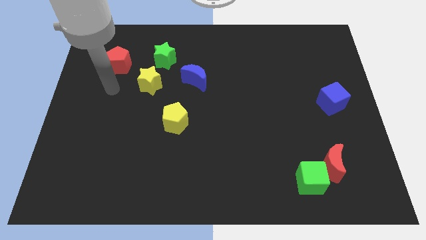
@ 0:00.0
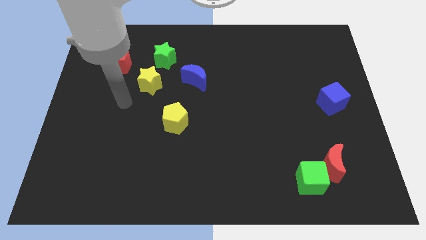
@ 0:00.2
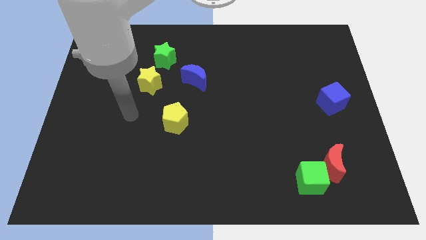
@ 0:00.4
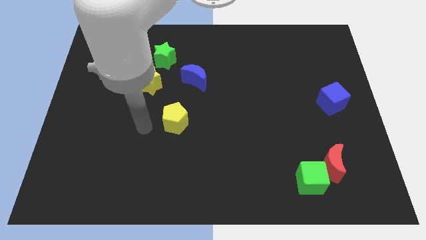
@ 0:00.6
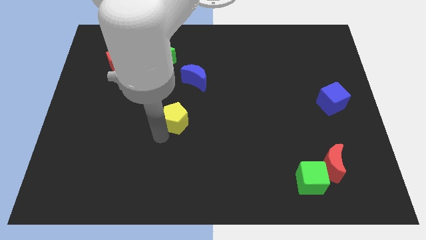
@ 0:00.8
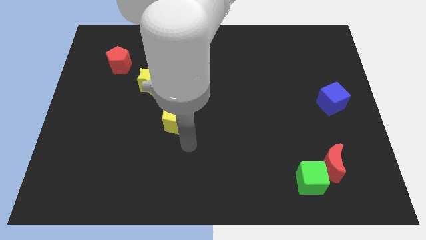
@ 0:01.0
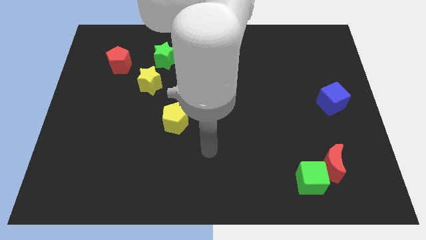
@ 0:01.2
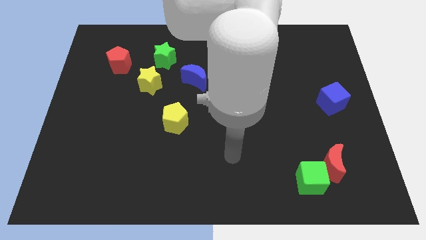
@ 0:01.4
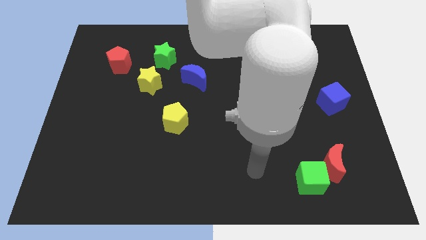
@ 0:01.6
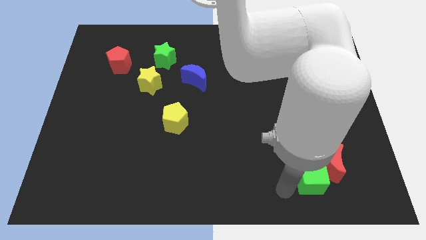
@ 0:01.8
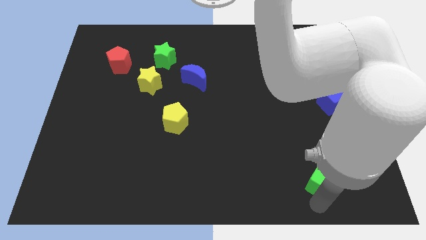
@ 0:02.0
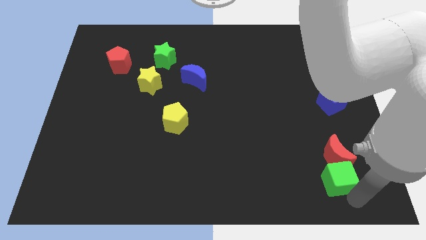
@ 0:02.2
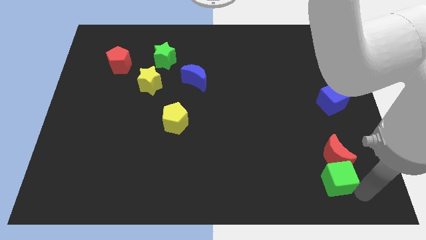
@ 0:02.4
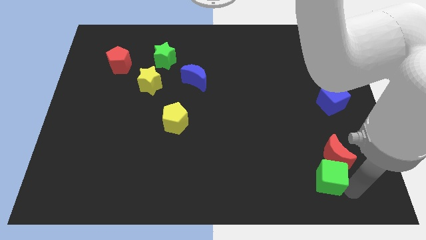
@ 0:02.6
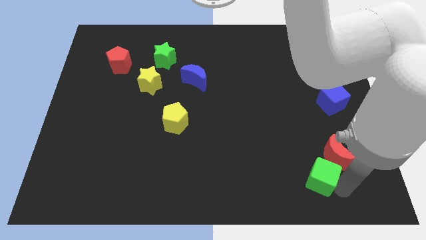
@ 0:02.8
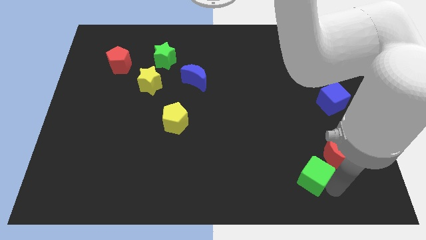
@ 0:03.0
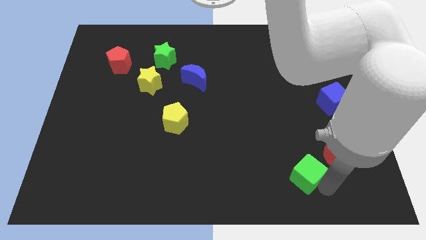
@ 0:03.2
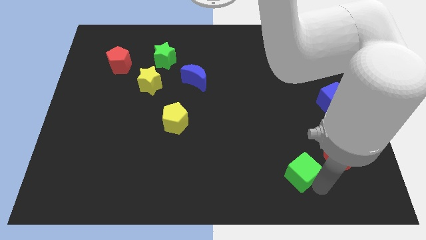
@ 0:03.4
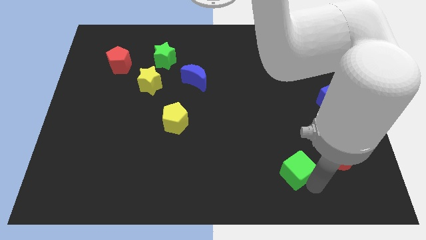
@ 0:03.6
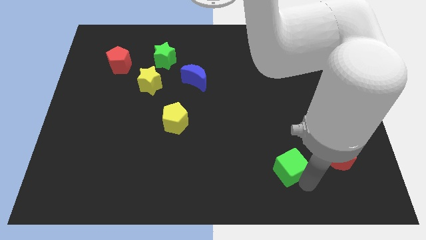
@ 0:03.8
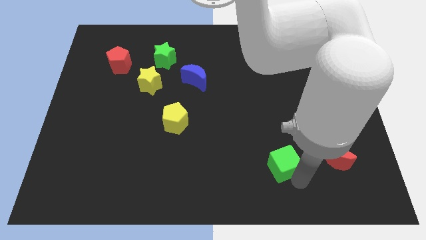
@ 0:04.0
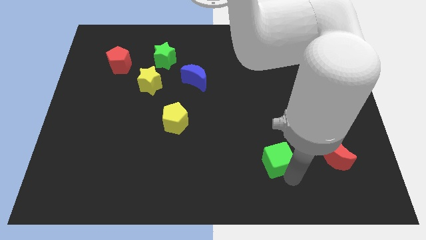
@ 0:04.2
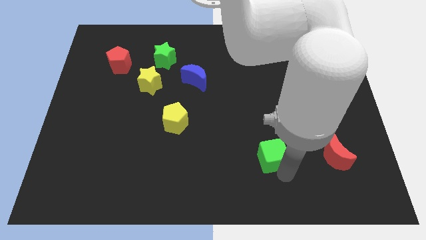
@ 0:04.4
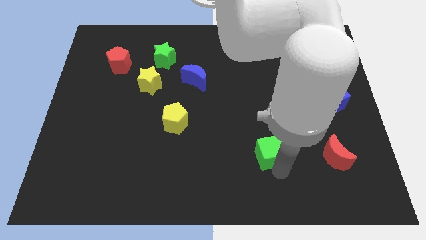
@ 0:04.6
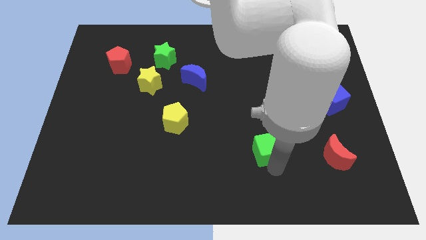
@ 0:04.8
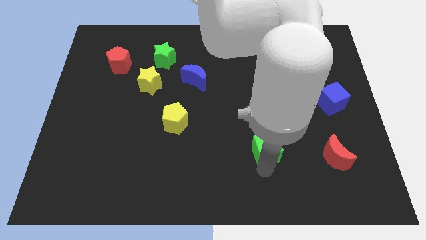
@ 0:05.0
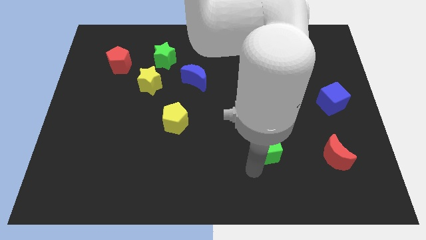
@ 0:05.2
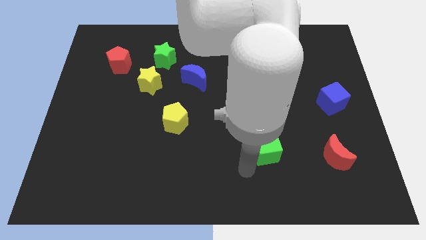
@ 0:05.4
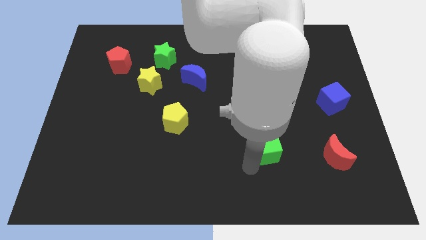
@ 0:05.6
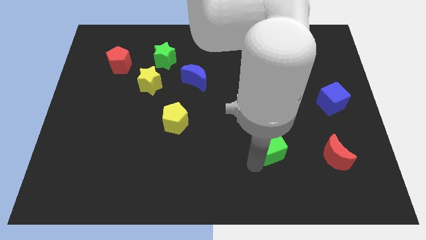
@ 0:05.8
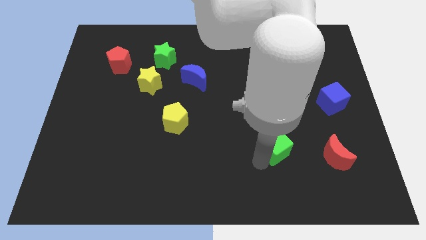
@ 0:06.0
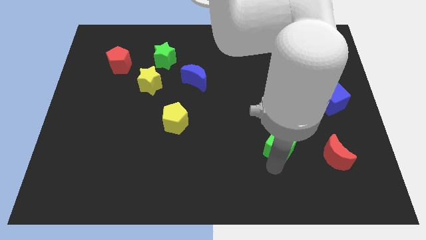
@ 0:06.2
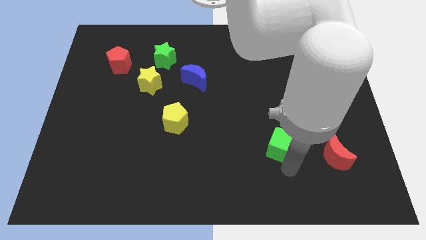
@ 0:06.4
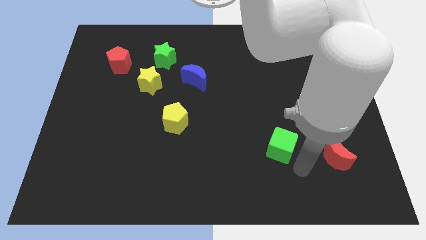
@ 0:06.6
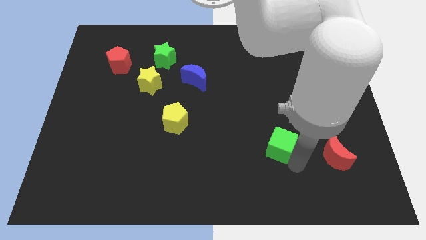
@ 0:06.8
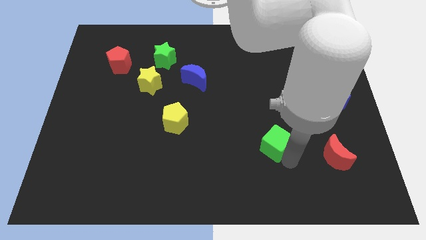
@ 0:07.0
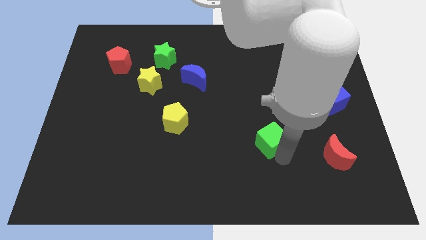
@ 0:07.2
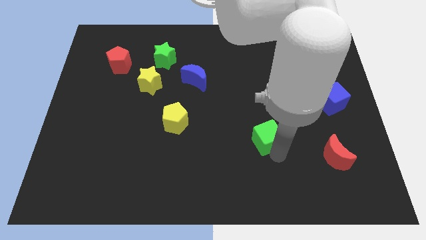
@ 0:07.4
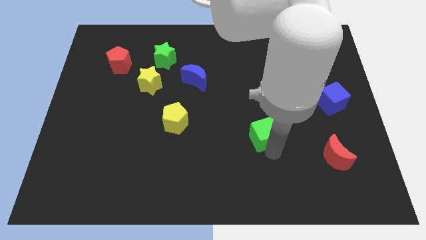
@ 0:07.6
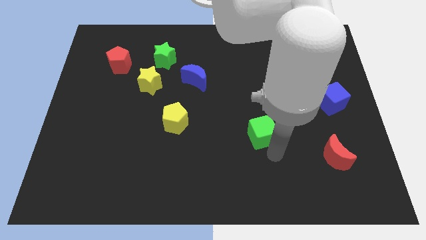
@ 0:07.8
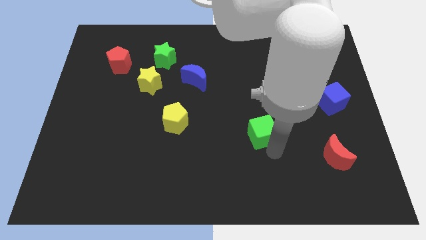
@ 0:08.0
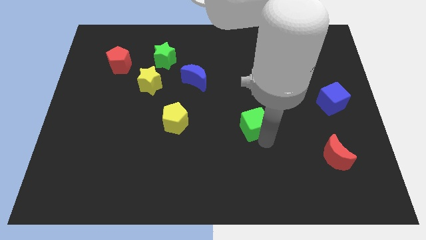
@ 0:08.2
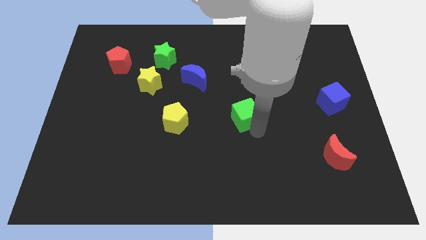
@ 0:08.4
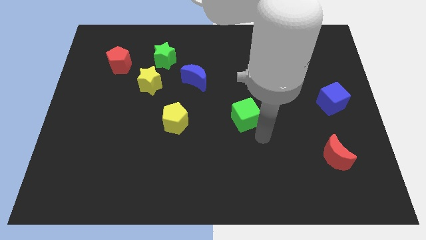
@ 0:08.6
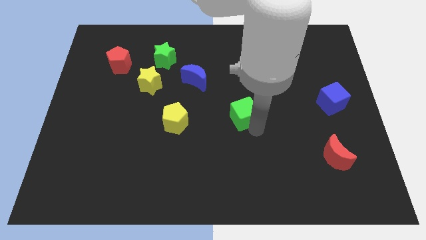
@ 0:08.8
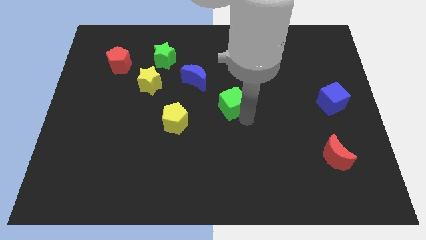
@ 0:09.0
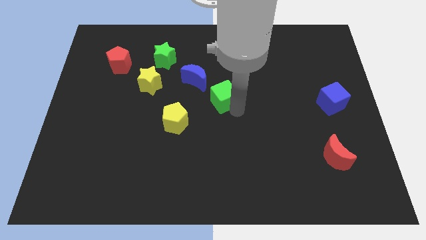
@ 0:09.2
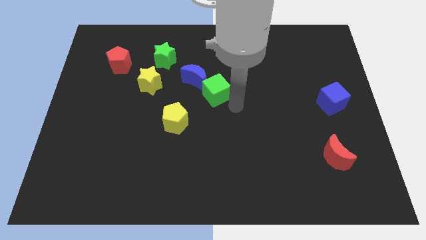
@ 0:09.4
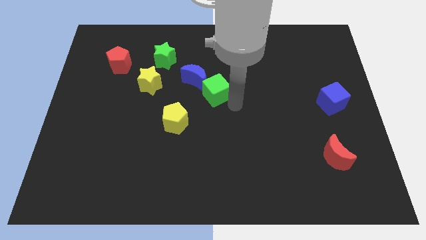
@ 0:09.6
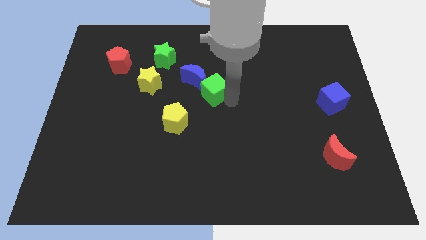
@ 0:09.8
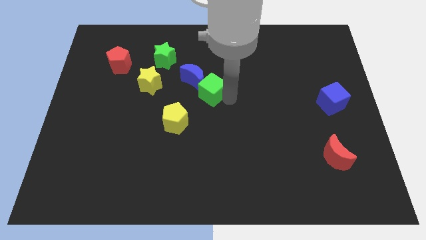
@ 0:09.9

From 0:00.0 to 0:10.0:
put the green cube close to the blue moon

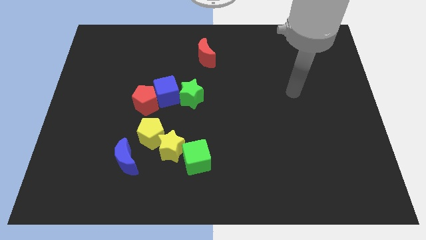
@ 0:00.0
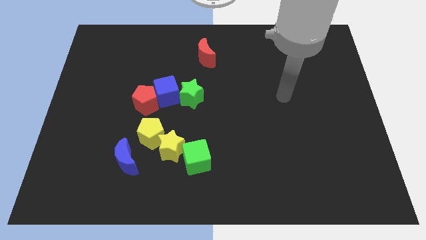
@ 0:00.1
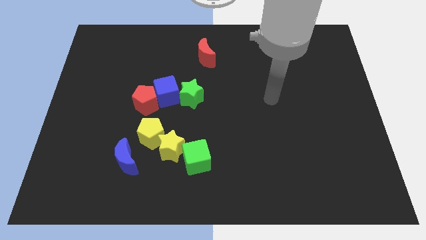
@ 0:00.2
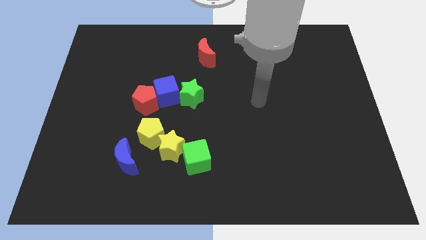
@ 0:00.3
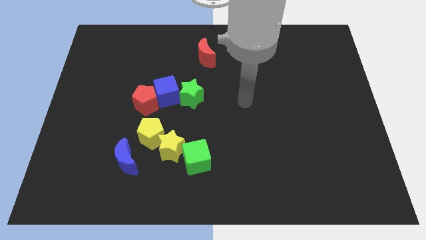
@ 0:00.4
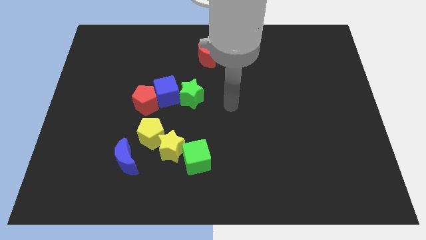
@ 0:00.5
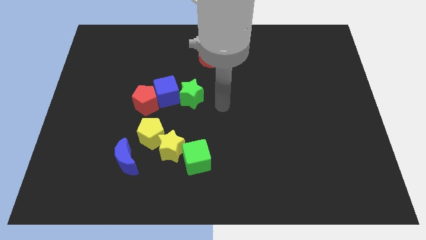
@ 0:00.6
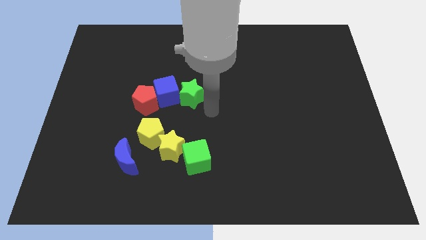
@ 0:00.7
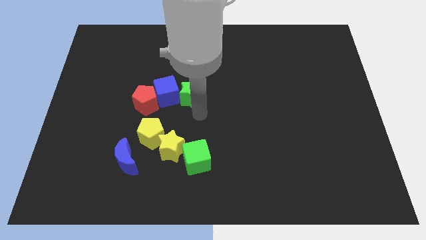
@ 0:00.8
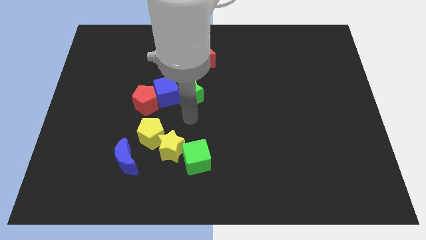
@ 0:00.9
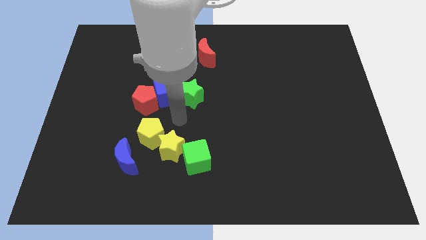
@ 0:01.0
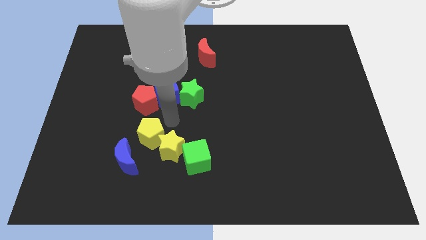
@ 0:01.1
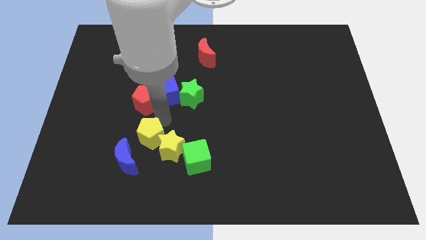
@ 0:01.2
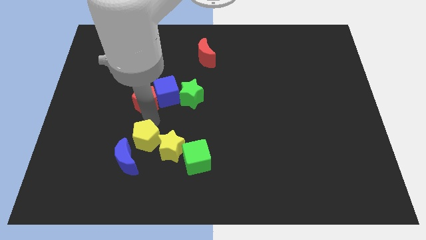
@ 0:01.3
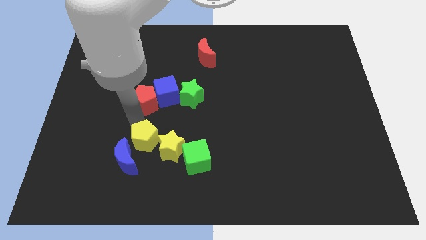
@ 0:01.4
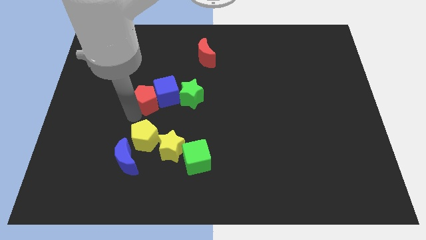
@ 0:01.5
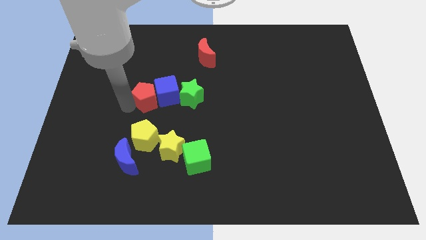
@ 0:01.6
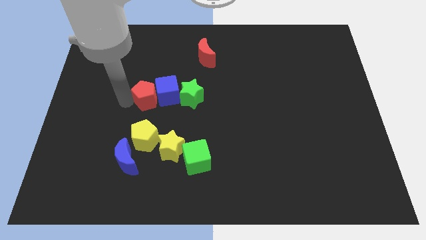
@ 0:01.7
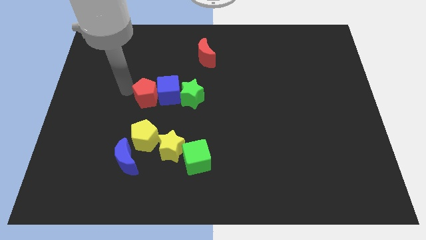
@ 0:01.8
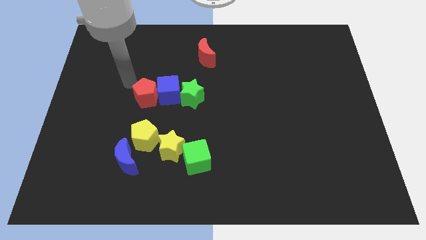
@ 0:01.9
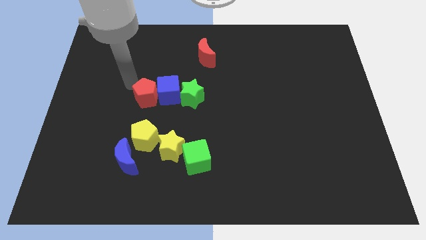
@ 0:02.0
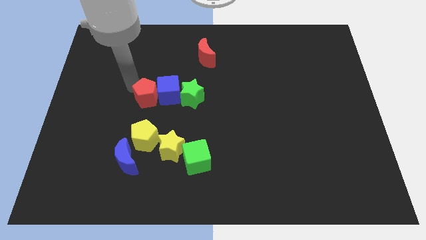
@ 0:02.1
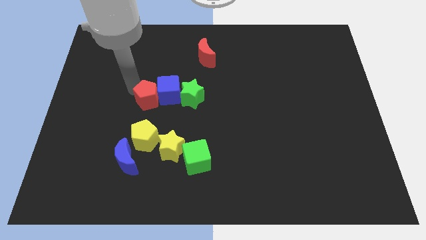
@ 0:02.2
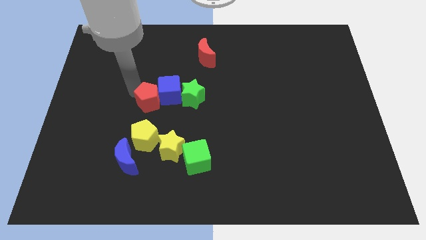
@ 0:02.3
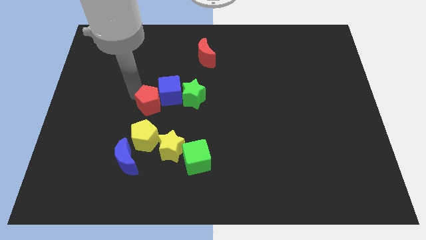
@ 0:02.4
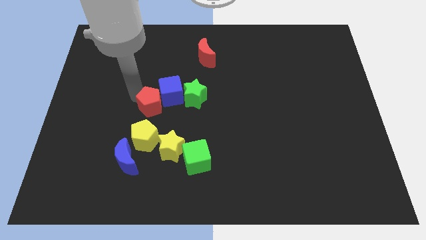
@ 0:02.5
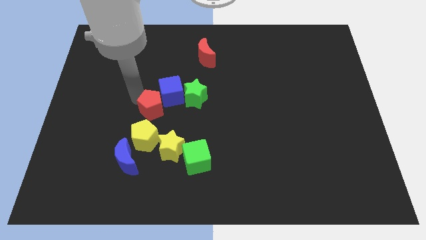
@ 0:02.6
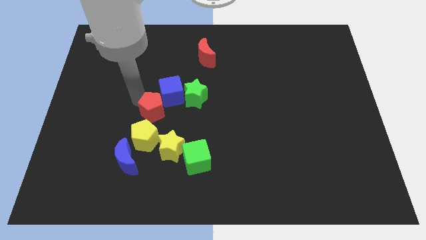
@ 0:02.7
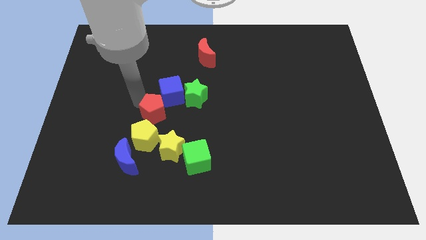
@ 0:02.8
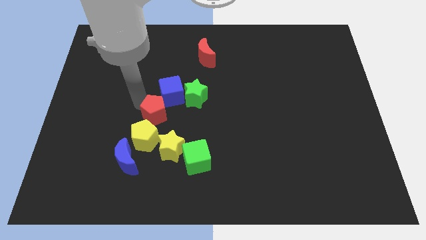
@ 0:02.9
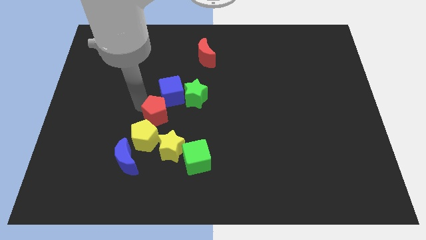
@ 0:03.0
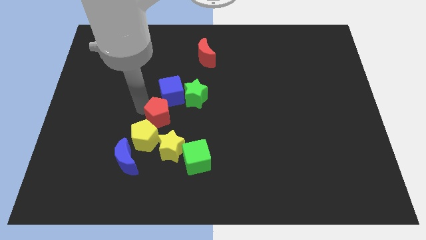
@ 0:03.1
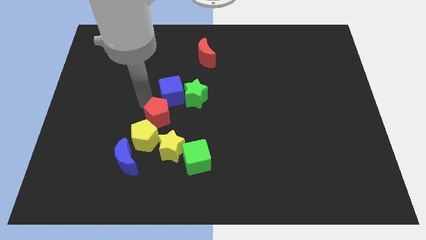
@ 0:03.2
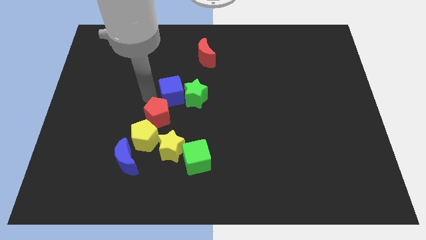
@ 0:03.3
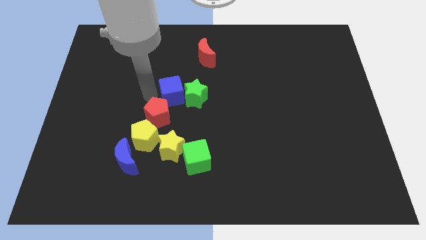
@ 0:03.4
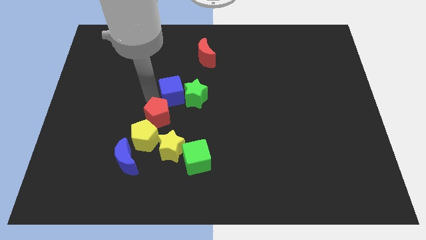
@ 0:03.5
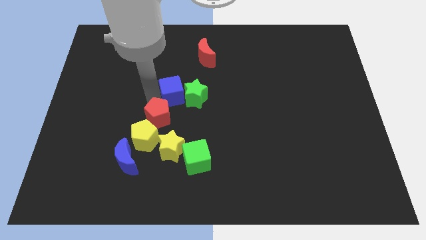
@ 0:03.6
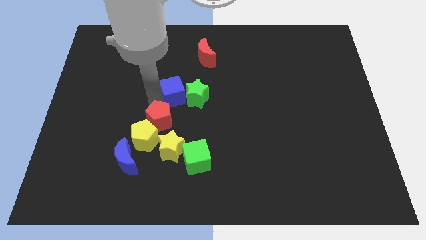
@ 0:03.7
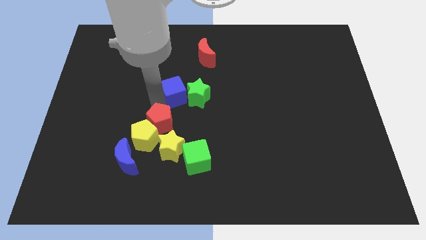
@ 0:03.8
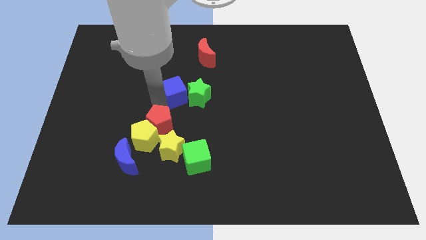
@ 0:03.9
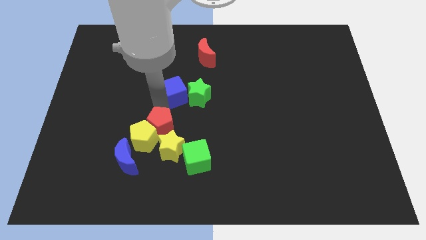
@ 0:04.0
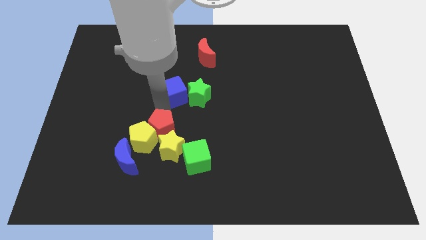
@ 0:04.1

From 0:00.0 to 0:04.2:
move the red pentagon close to the yellow star
